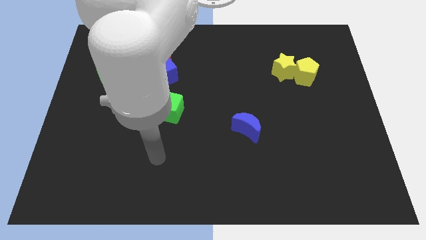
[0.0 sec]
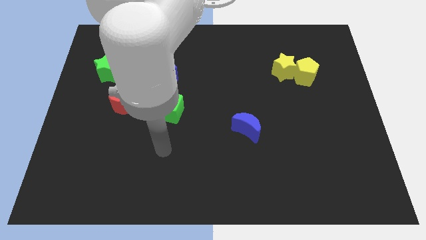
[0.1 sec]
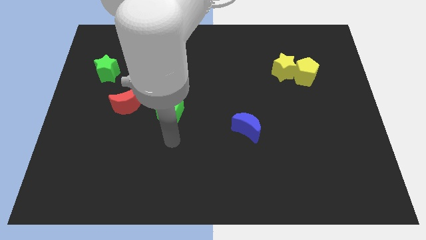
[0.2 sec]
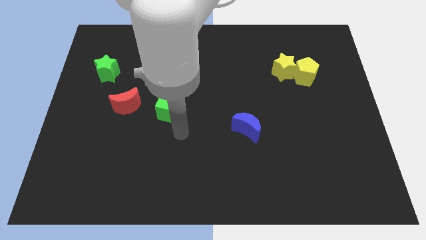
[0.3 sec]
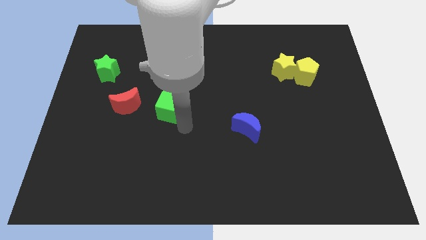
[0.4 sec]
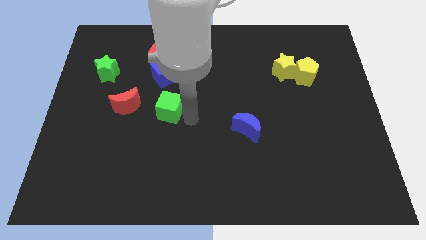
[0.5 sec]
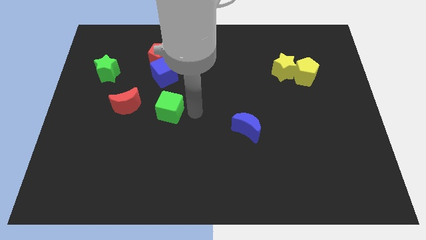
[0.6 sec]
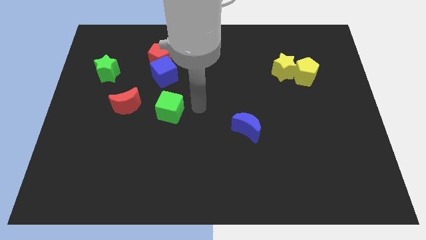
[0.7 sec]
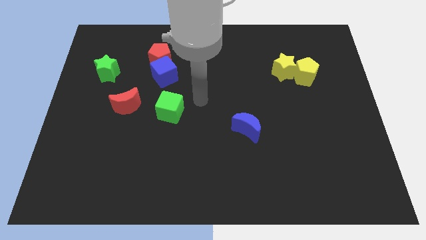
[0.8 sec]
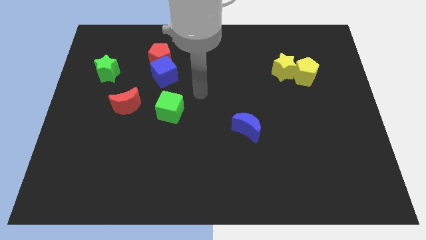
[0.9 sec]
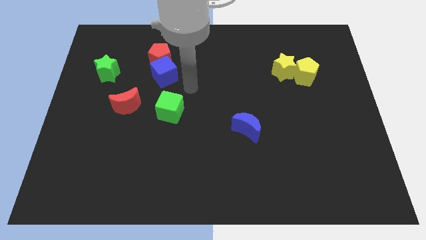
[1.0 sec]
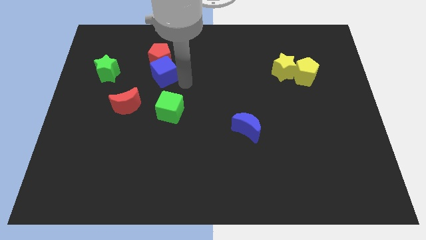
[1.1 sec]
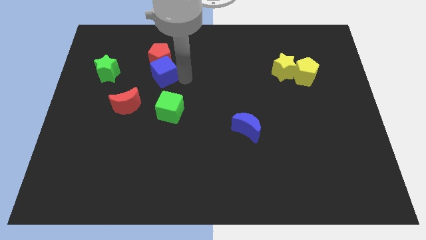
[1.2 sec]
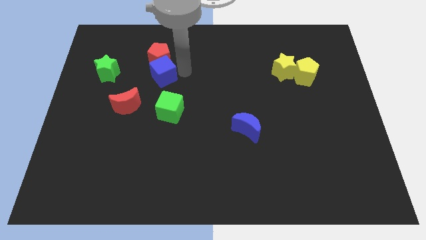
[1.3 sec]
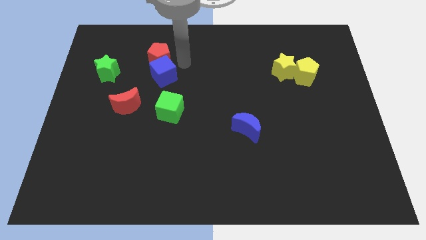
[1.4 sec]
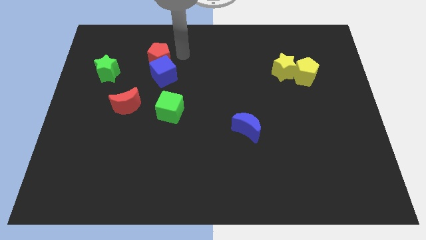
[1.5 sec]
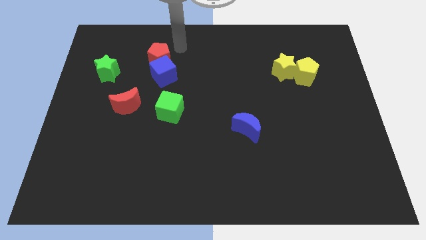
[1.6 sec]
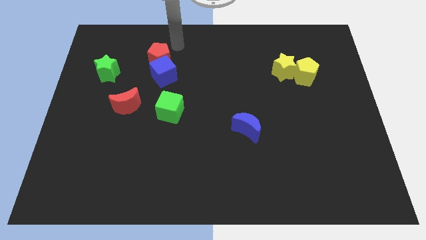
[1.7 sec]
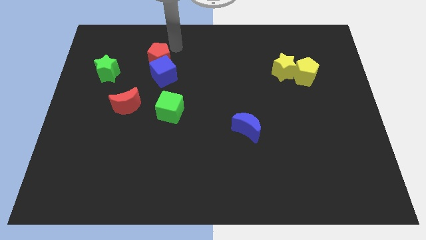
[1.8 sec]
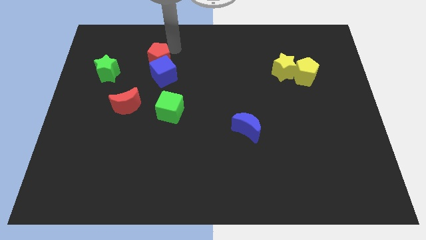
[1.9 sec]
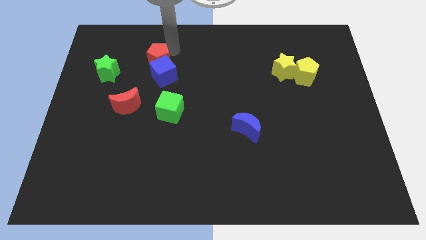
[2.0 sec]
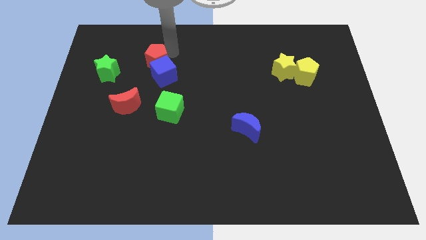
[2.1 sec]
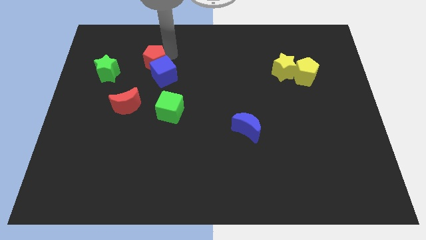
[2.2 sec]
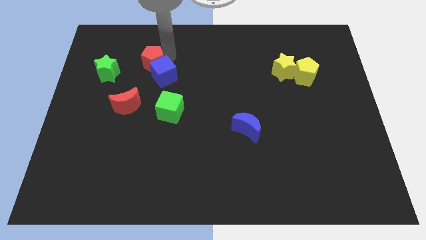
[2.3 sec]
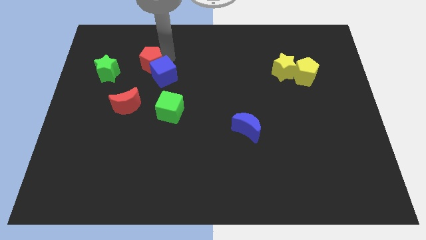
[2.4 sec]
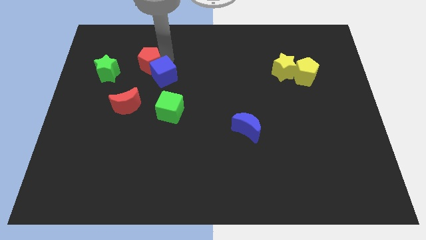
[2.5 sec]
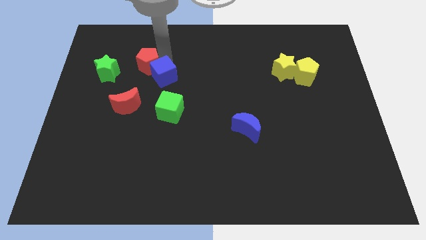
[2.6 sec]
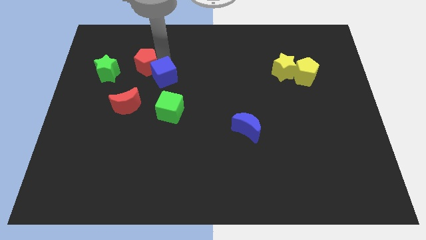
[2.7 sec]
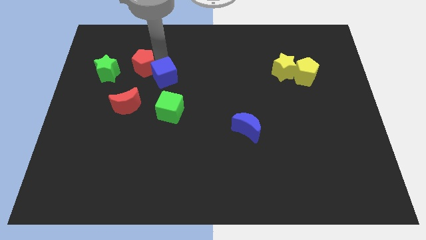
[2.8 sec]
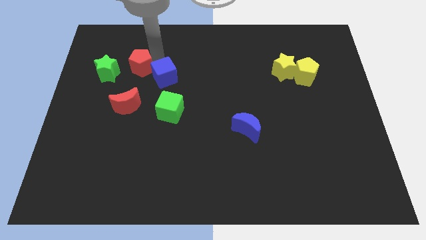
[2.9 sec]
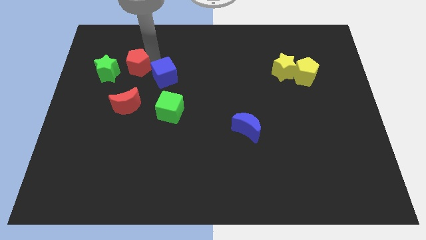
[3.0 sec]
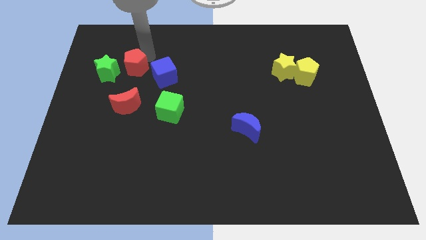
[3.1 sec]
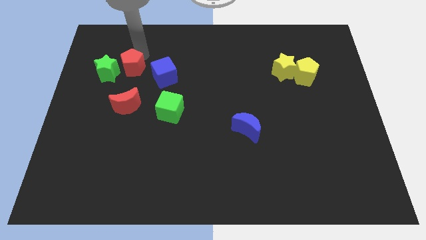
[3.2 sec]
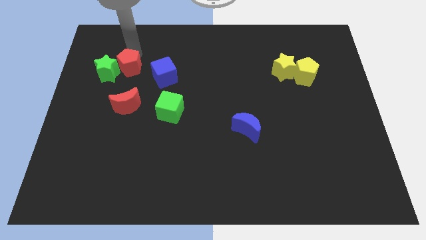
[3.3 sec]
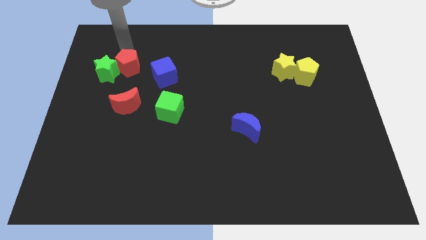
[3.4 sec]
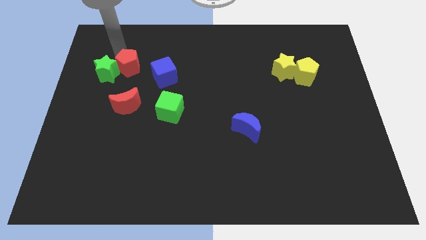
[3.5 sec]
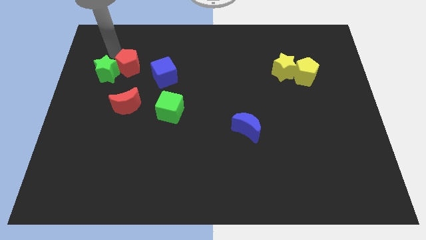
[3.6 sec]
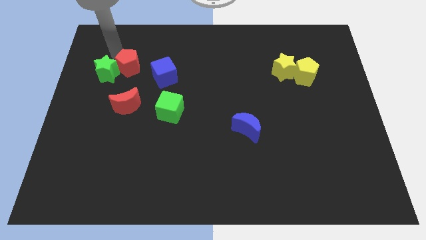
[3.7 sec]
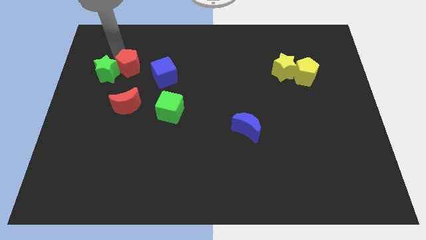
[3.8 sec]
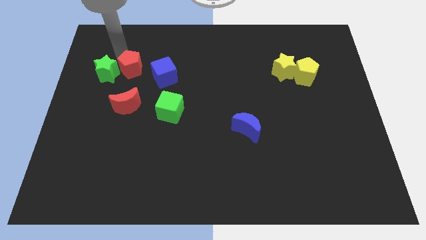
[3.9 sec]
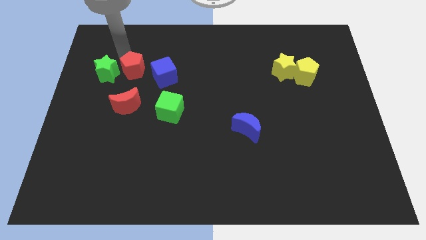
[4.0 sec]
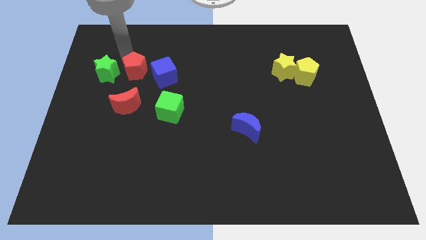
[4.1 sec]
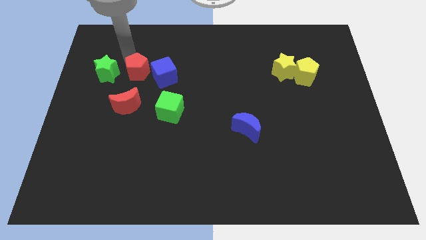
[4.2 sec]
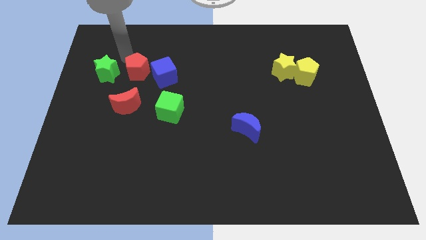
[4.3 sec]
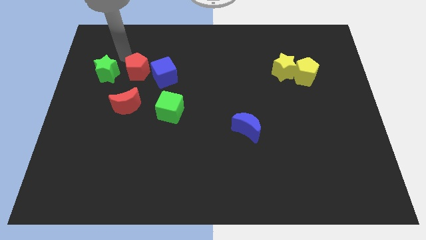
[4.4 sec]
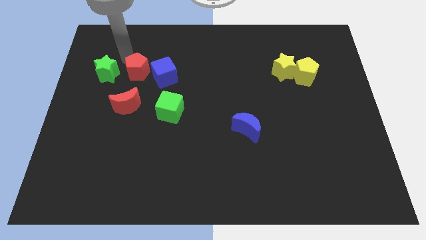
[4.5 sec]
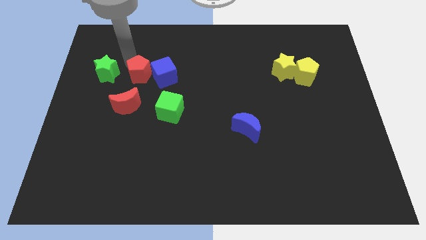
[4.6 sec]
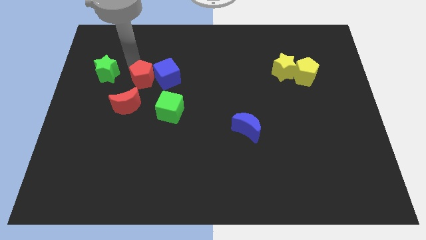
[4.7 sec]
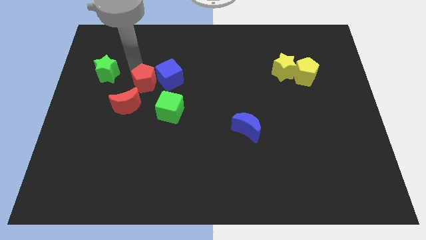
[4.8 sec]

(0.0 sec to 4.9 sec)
move the red pentagon down slightly

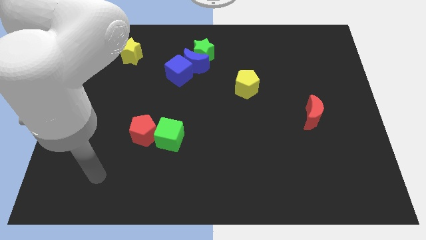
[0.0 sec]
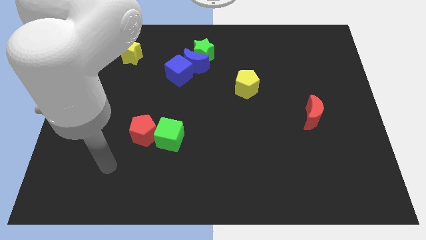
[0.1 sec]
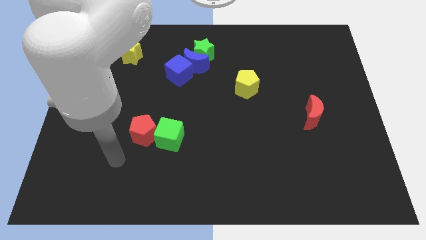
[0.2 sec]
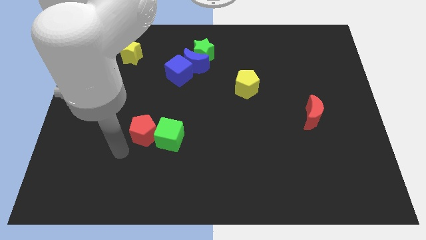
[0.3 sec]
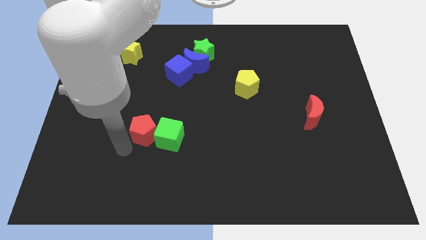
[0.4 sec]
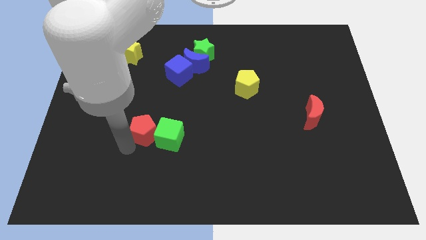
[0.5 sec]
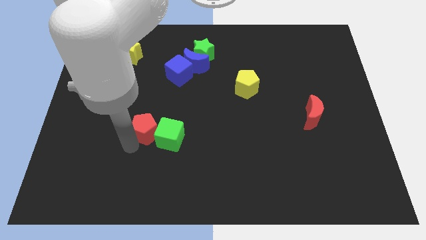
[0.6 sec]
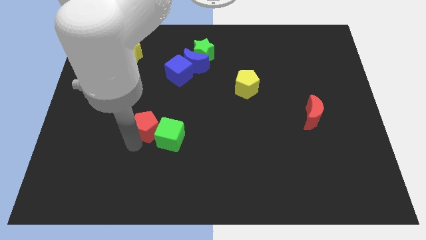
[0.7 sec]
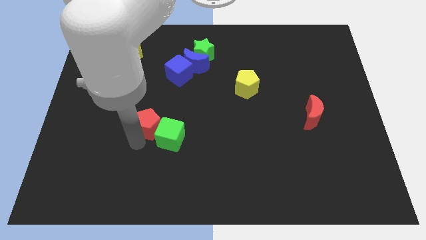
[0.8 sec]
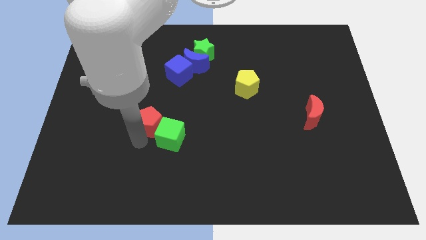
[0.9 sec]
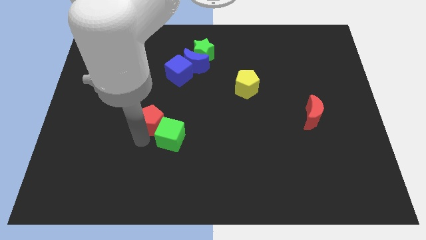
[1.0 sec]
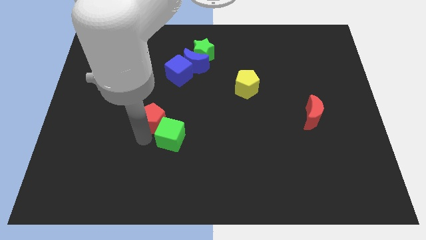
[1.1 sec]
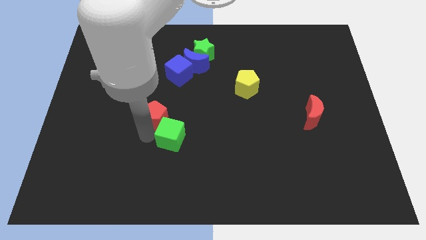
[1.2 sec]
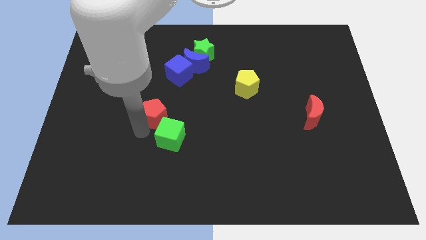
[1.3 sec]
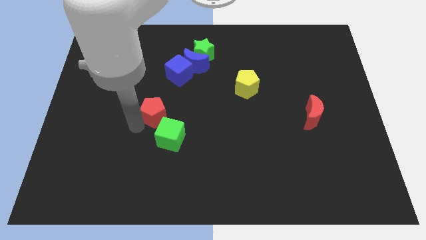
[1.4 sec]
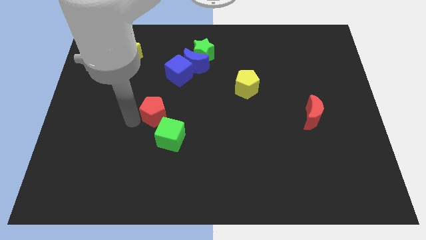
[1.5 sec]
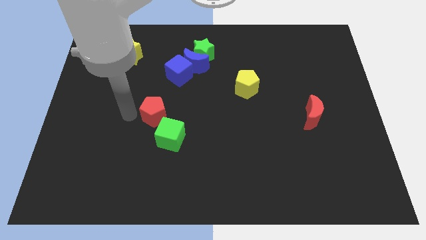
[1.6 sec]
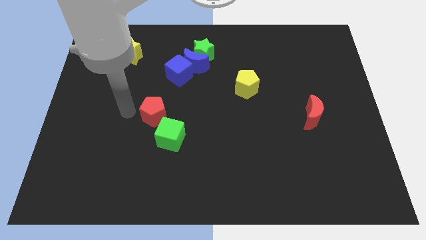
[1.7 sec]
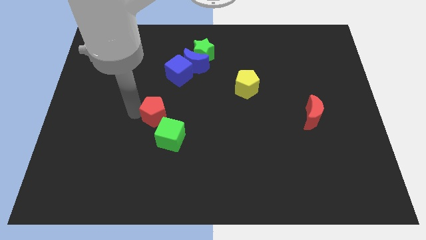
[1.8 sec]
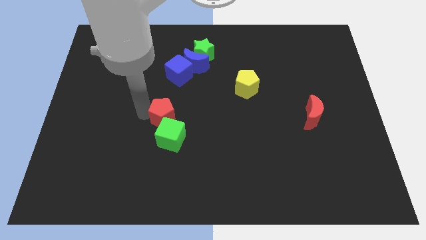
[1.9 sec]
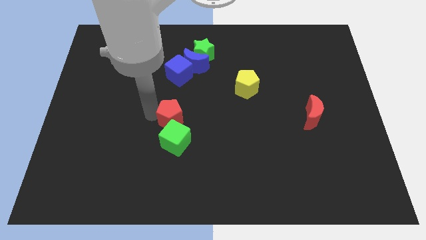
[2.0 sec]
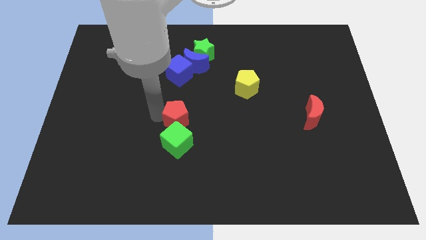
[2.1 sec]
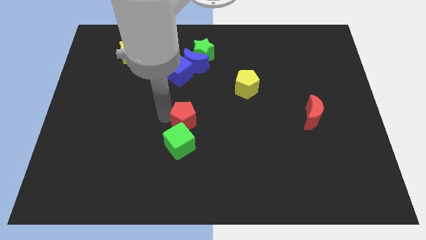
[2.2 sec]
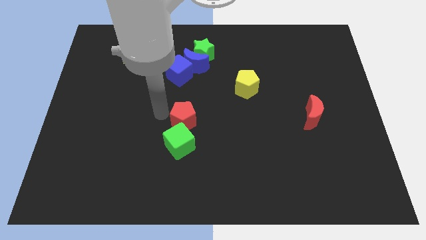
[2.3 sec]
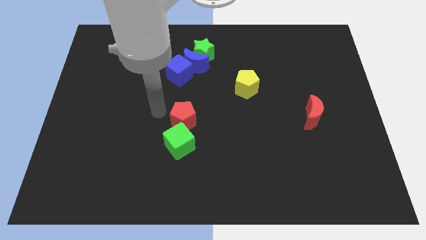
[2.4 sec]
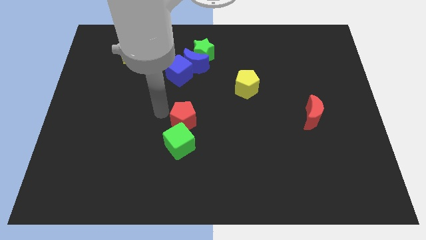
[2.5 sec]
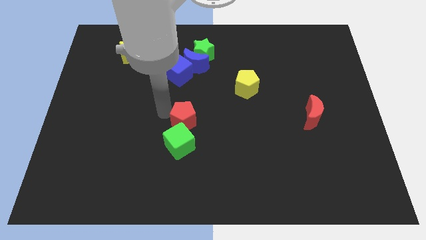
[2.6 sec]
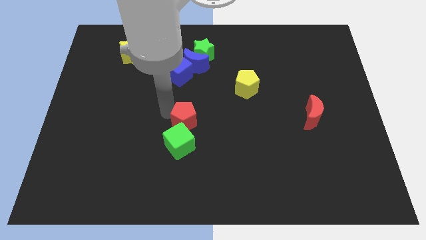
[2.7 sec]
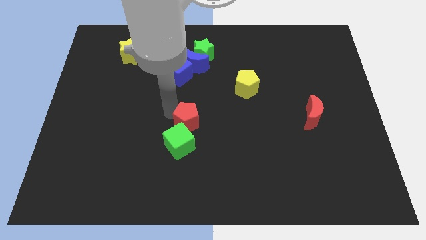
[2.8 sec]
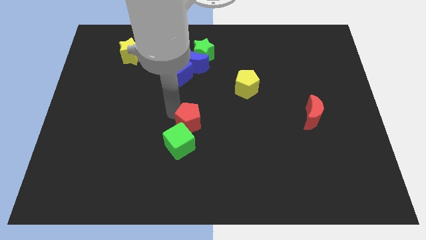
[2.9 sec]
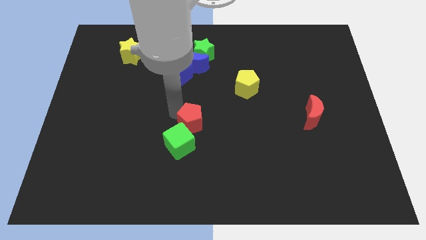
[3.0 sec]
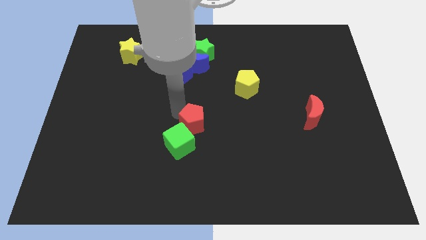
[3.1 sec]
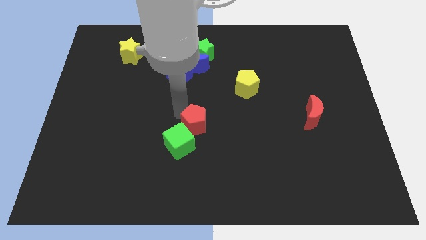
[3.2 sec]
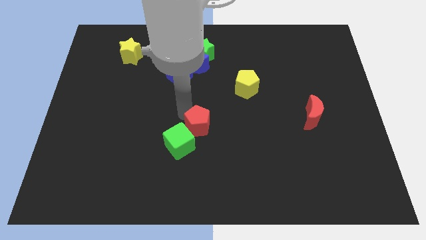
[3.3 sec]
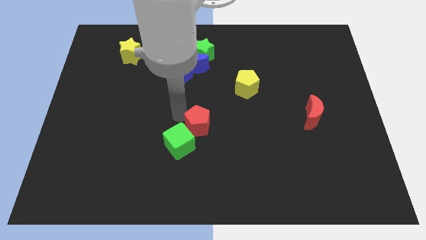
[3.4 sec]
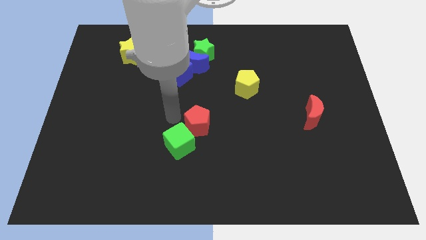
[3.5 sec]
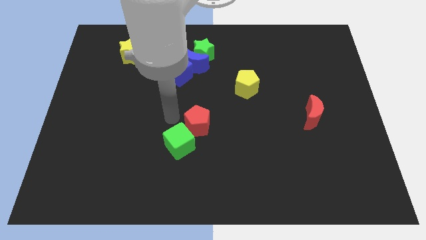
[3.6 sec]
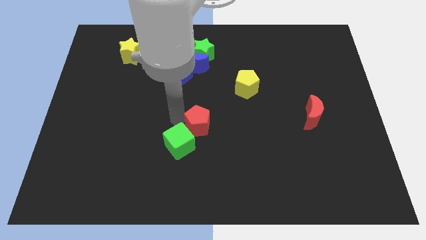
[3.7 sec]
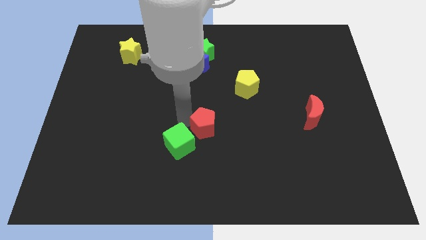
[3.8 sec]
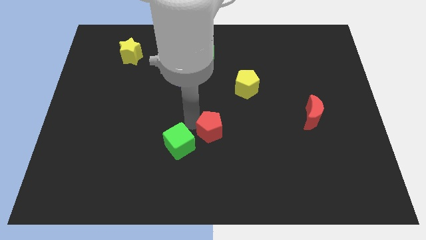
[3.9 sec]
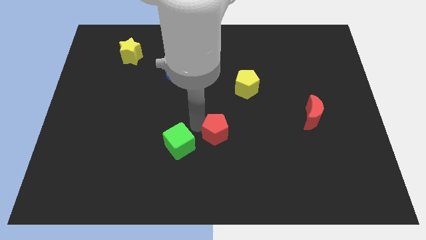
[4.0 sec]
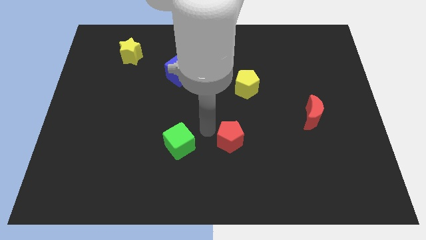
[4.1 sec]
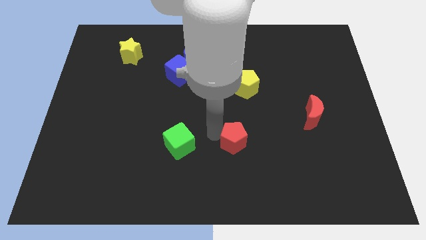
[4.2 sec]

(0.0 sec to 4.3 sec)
move the red pentagon to the right
